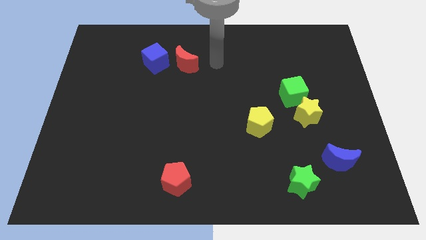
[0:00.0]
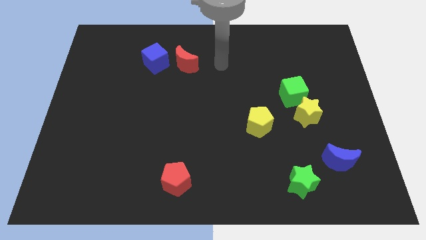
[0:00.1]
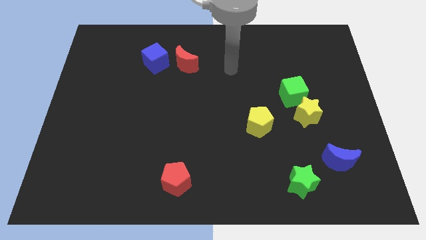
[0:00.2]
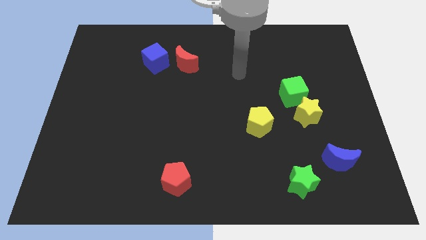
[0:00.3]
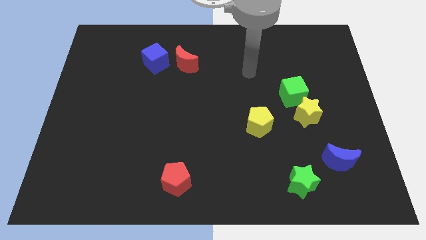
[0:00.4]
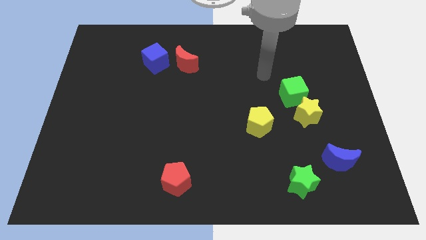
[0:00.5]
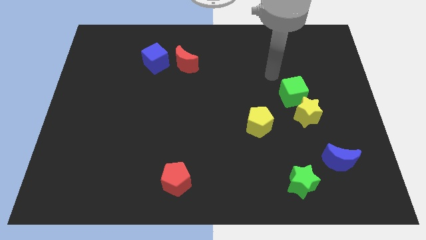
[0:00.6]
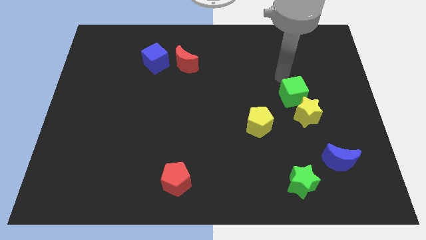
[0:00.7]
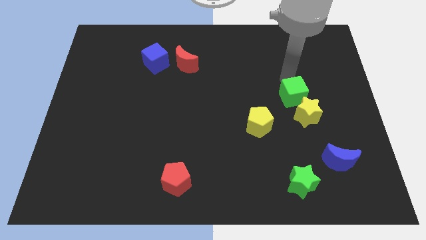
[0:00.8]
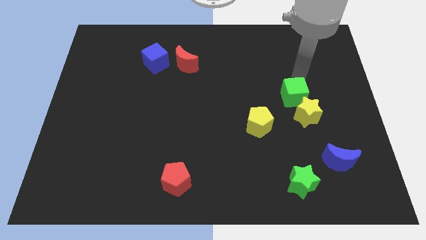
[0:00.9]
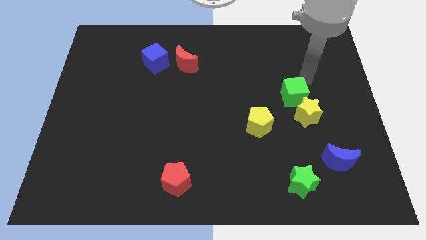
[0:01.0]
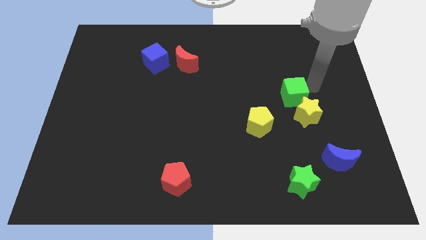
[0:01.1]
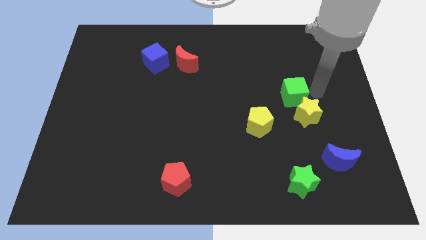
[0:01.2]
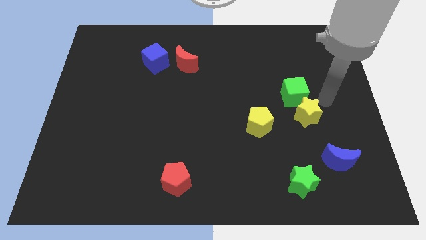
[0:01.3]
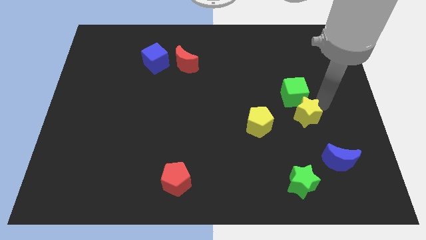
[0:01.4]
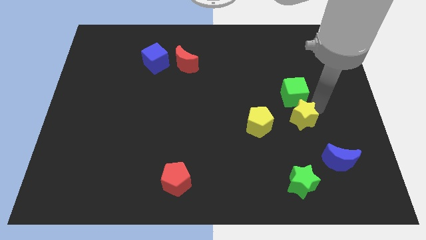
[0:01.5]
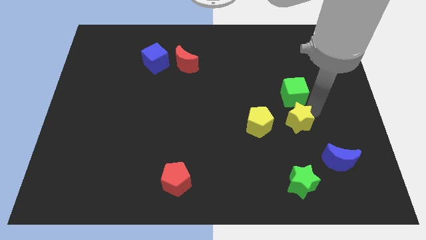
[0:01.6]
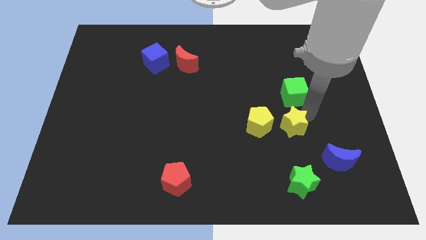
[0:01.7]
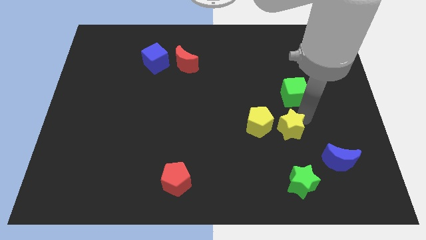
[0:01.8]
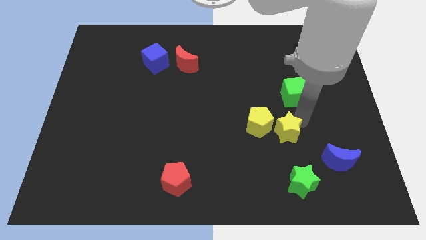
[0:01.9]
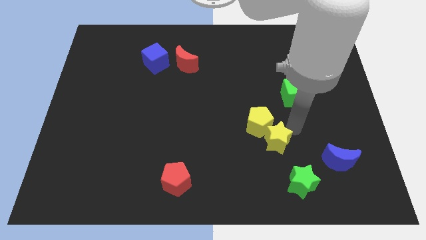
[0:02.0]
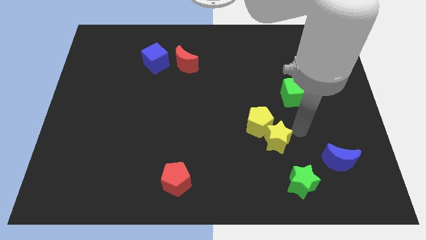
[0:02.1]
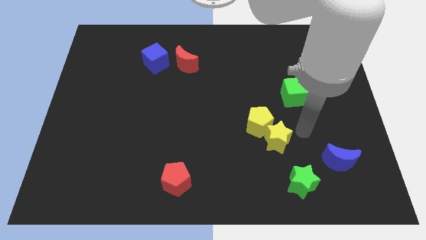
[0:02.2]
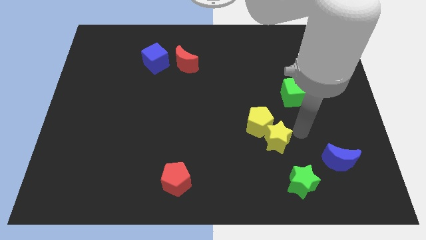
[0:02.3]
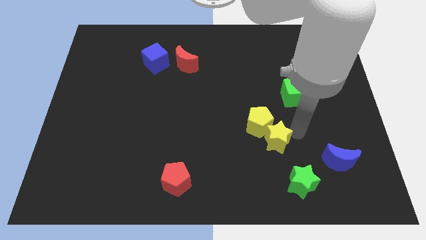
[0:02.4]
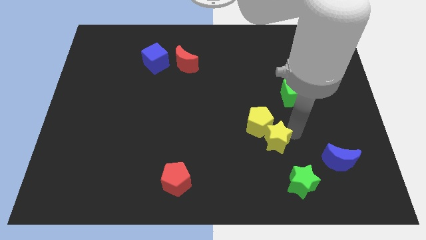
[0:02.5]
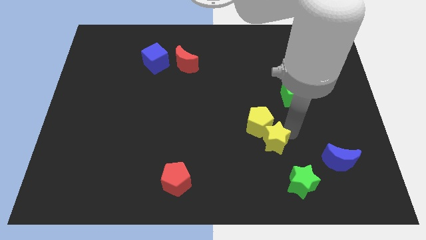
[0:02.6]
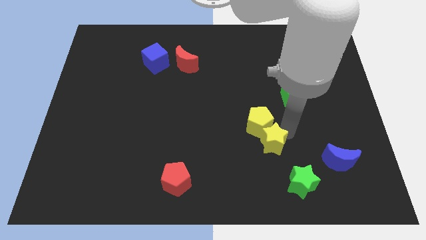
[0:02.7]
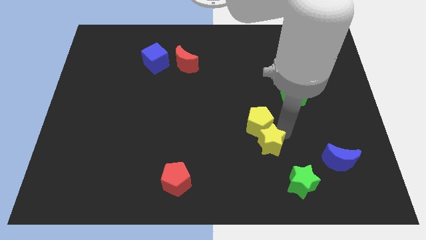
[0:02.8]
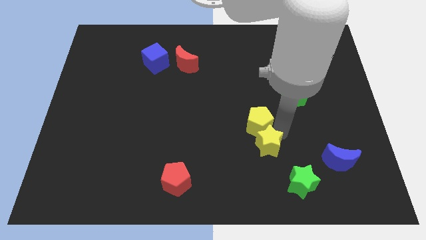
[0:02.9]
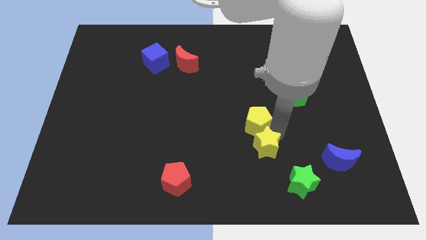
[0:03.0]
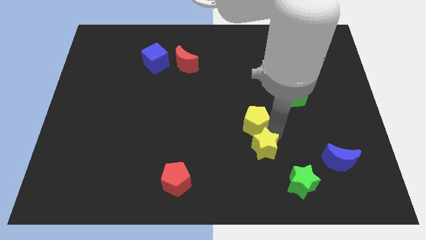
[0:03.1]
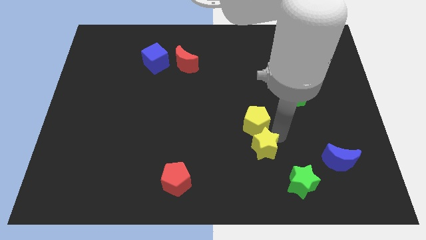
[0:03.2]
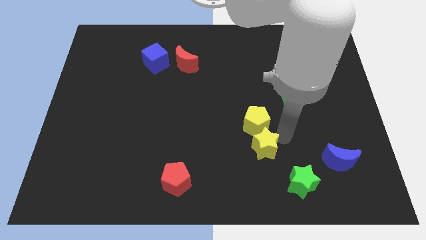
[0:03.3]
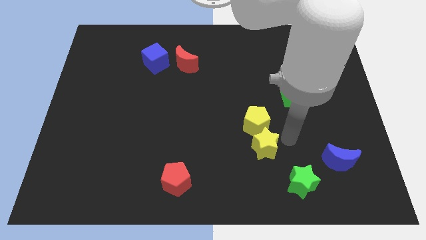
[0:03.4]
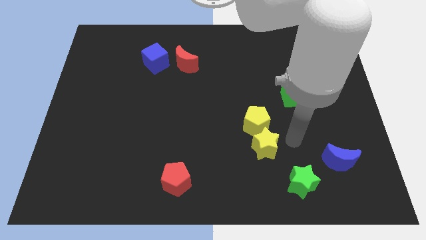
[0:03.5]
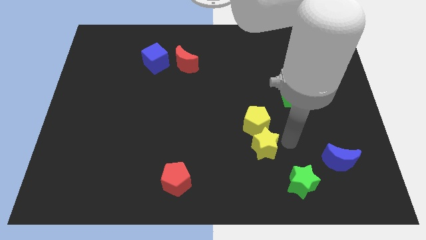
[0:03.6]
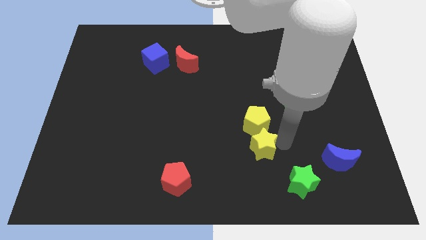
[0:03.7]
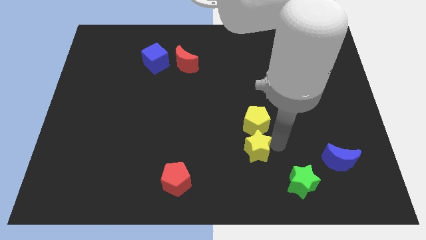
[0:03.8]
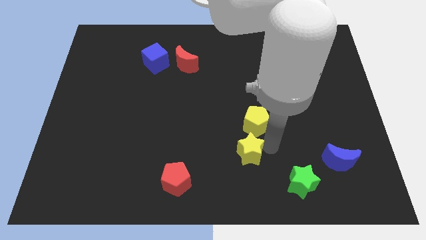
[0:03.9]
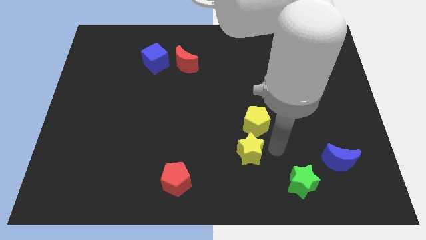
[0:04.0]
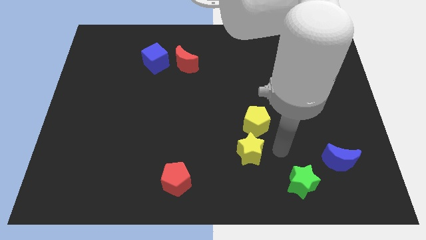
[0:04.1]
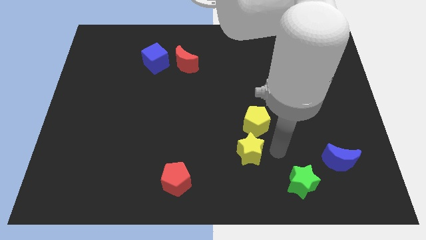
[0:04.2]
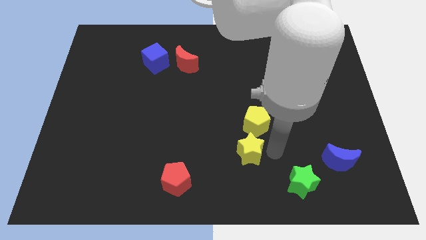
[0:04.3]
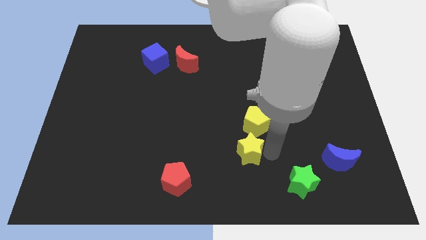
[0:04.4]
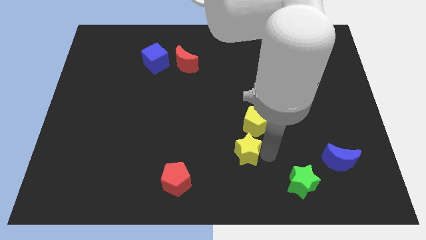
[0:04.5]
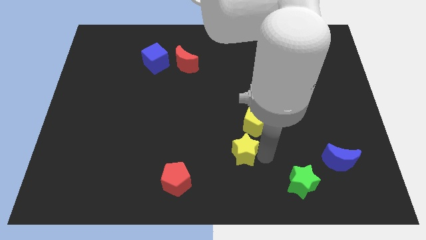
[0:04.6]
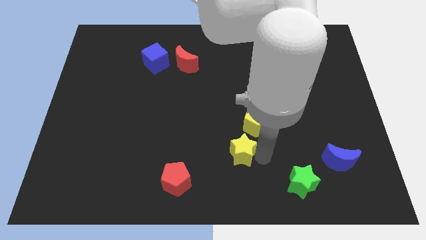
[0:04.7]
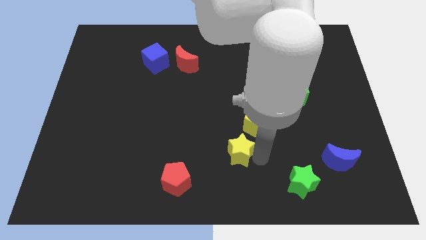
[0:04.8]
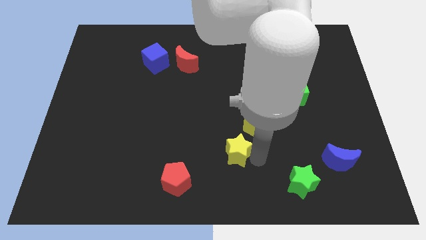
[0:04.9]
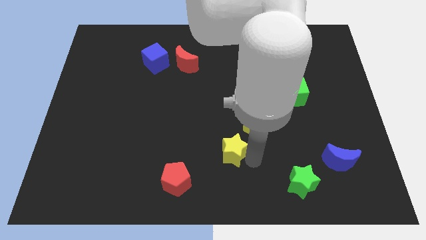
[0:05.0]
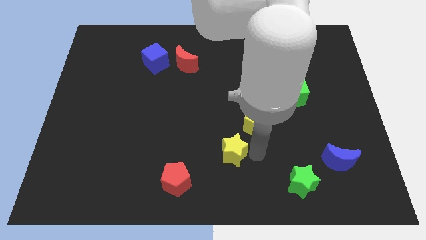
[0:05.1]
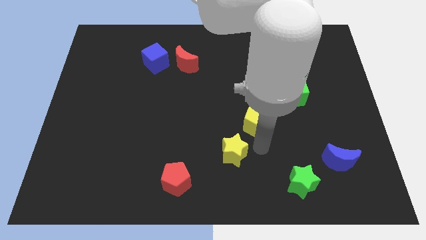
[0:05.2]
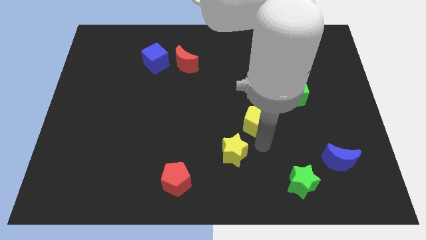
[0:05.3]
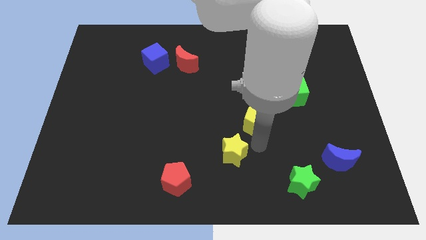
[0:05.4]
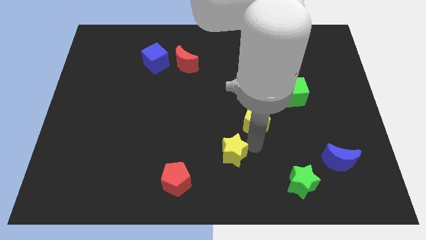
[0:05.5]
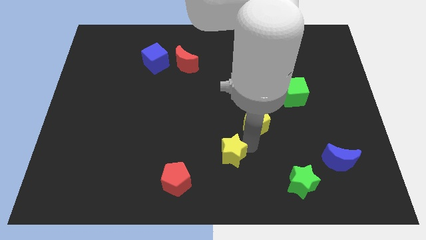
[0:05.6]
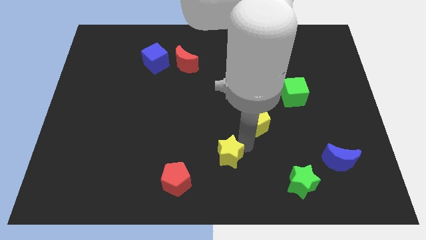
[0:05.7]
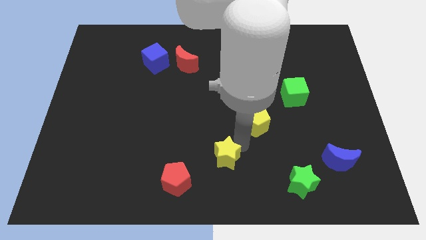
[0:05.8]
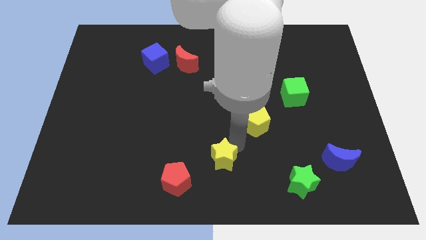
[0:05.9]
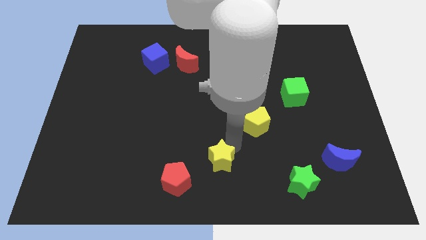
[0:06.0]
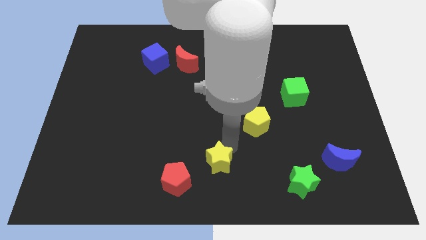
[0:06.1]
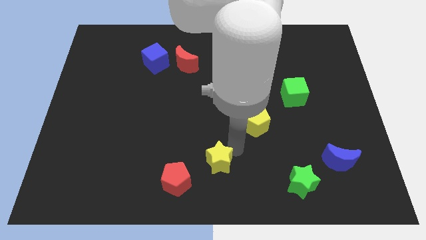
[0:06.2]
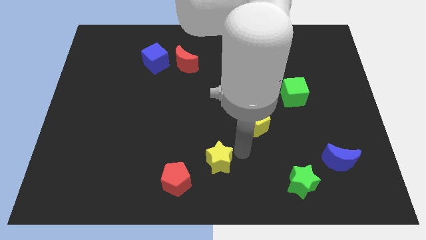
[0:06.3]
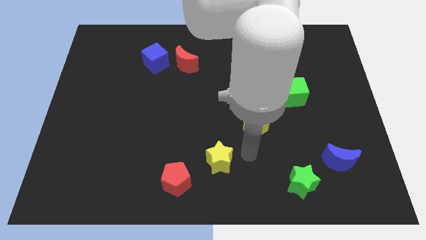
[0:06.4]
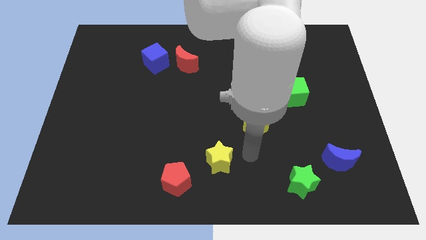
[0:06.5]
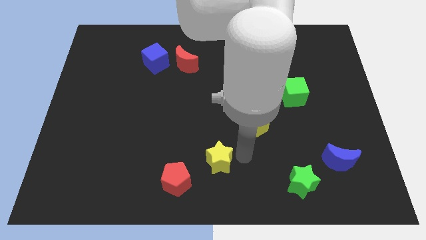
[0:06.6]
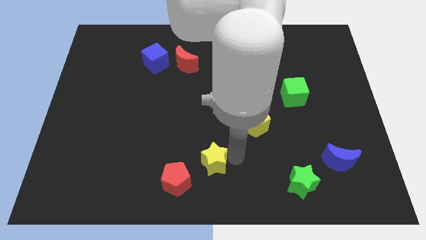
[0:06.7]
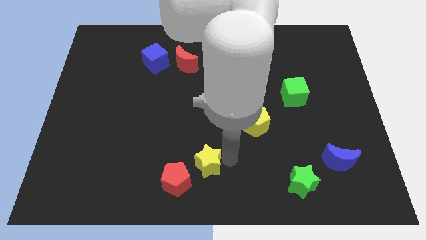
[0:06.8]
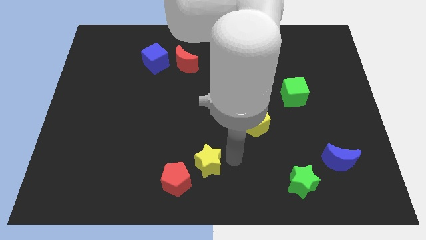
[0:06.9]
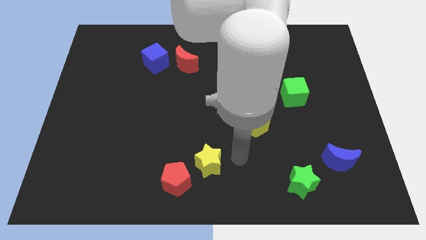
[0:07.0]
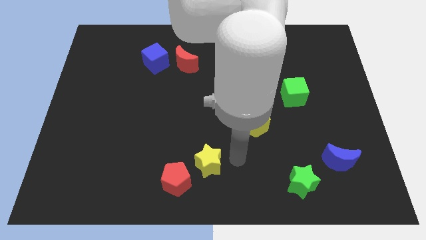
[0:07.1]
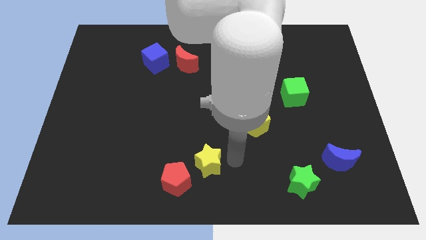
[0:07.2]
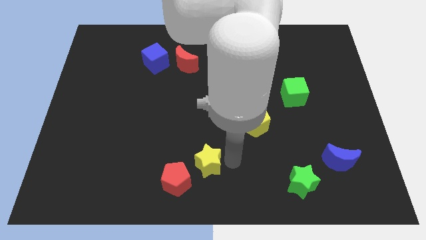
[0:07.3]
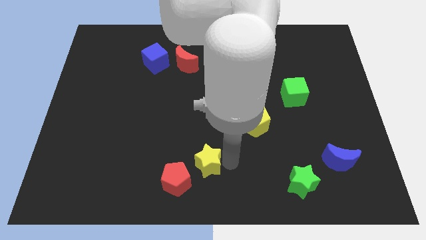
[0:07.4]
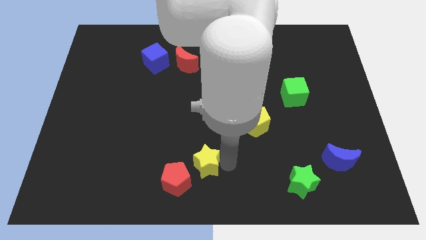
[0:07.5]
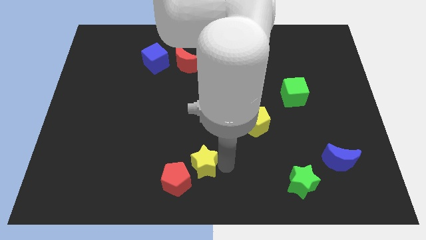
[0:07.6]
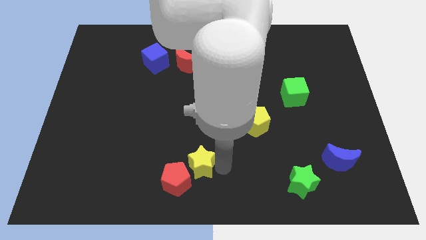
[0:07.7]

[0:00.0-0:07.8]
push the yellow star next to the red pentagon

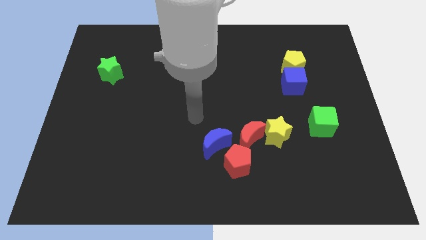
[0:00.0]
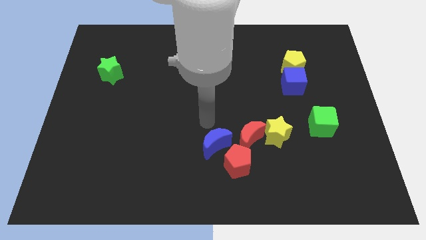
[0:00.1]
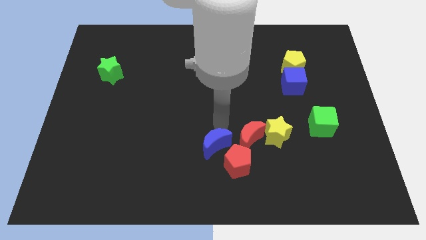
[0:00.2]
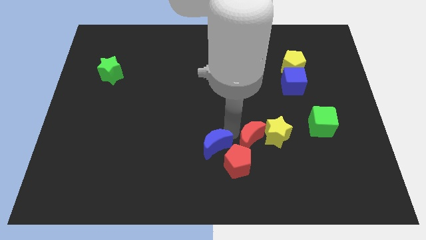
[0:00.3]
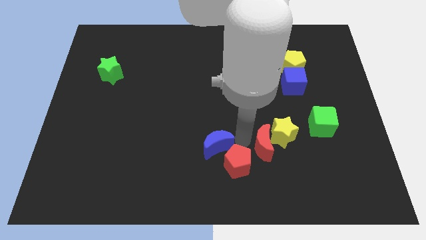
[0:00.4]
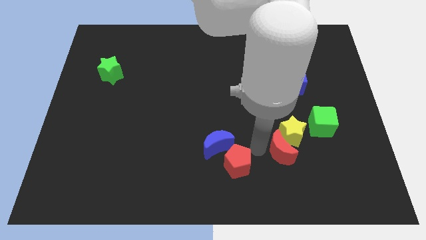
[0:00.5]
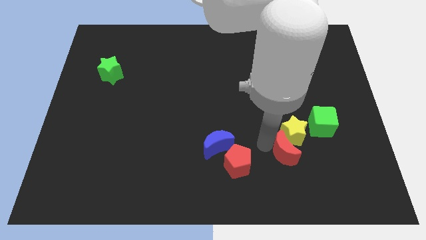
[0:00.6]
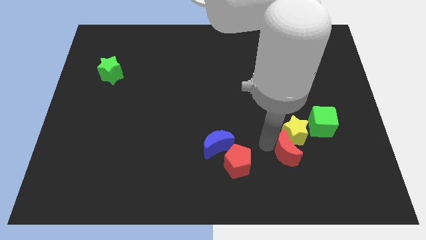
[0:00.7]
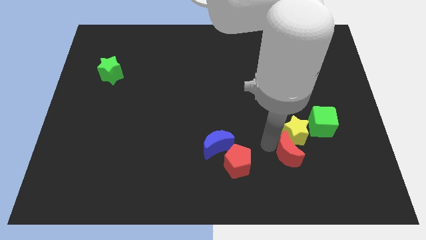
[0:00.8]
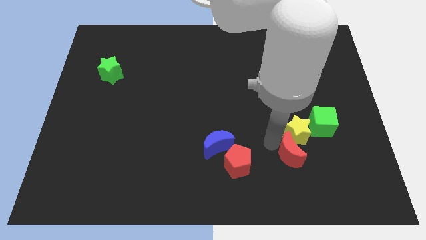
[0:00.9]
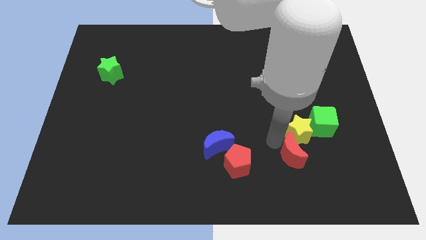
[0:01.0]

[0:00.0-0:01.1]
slide the yellow star towards the green cube
